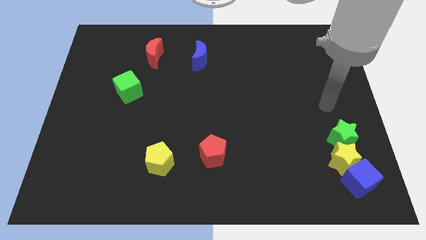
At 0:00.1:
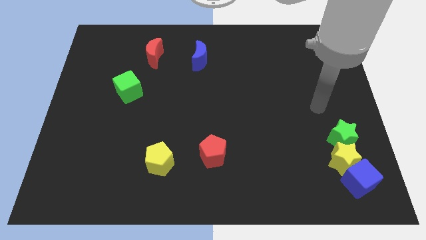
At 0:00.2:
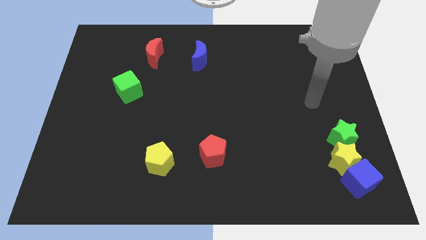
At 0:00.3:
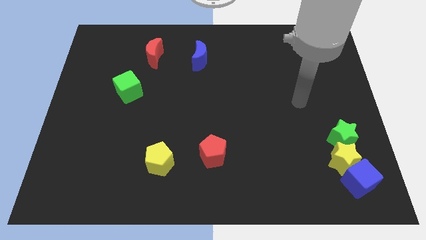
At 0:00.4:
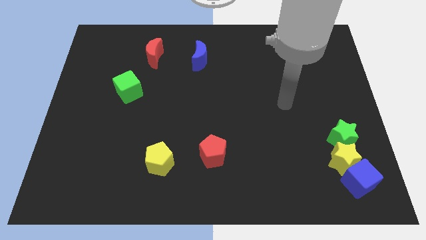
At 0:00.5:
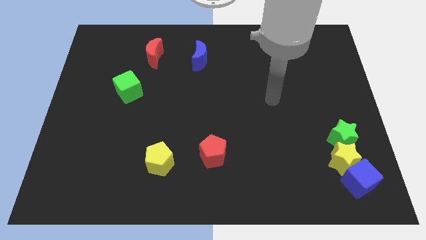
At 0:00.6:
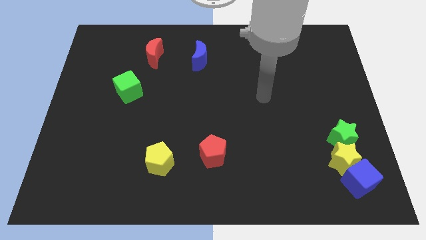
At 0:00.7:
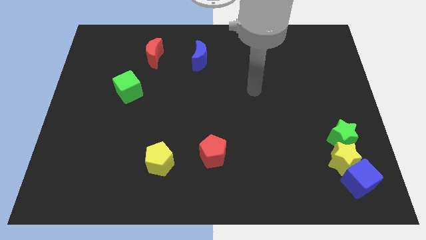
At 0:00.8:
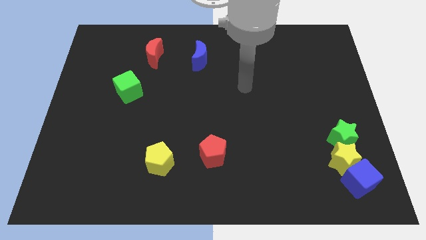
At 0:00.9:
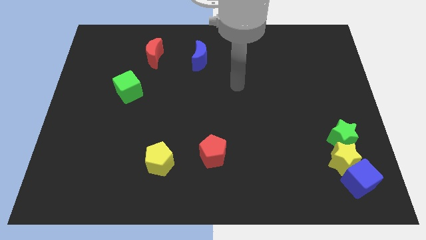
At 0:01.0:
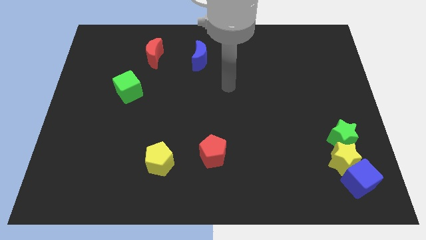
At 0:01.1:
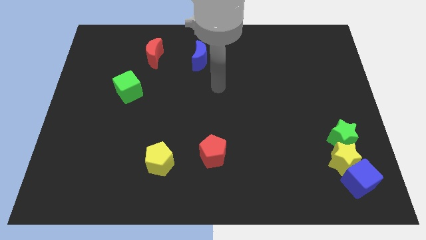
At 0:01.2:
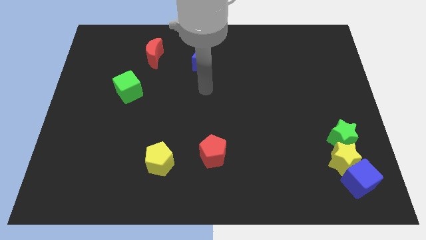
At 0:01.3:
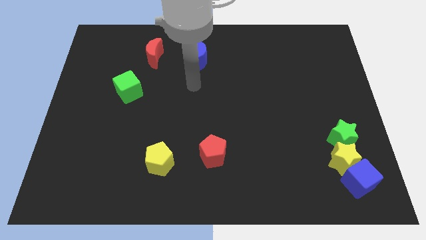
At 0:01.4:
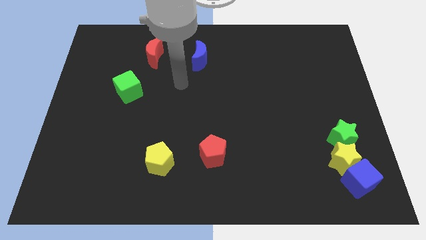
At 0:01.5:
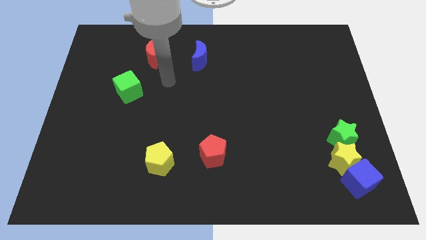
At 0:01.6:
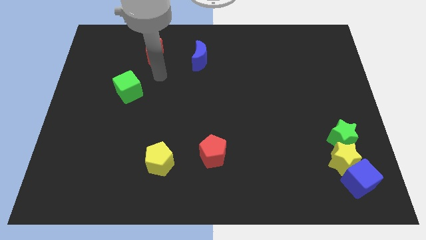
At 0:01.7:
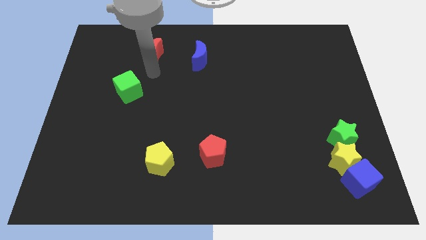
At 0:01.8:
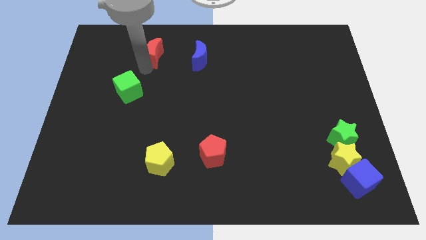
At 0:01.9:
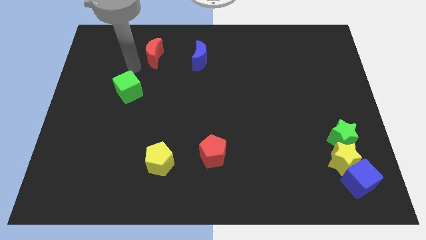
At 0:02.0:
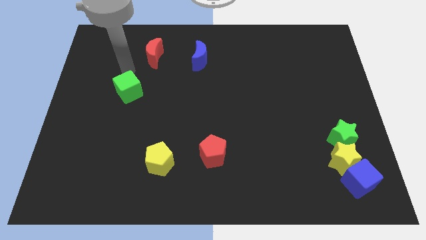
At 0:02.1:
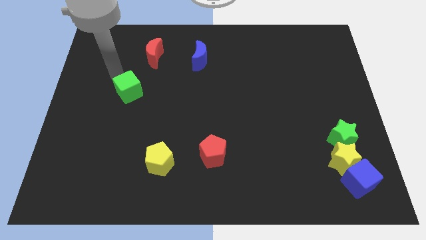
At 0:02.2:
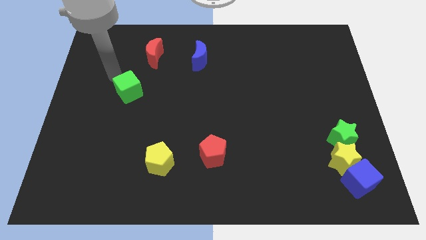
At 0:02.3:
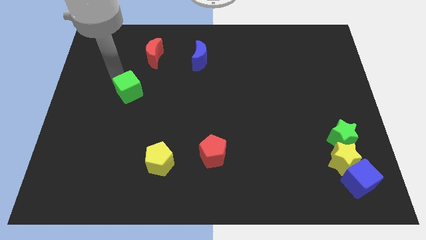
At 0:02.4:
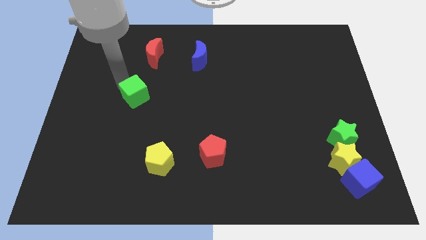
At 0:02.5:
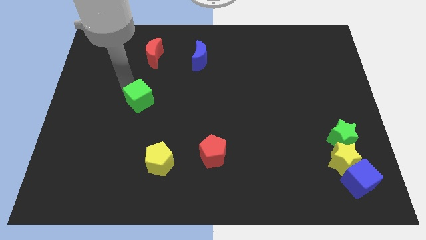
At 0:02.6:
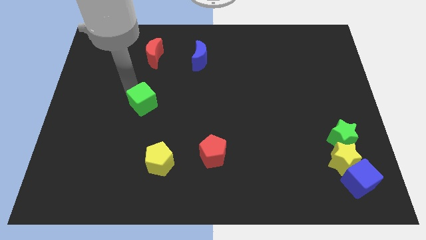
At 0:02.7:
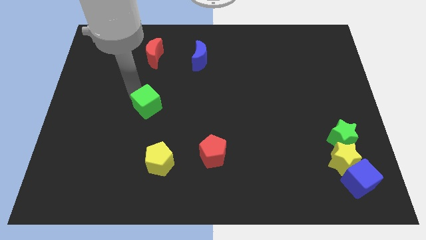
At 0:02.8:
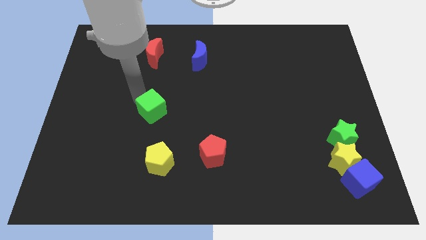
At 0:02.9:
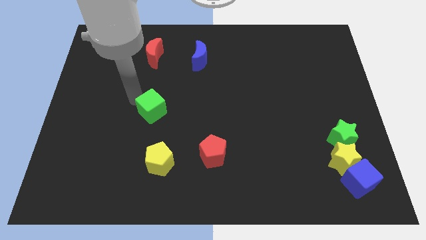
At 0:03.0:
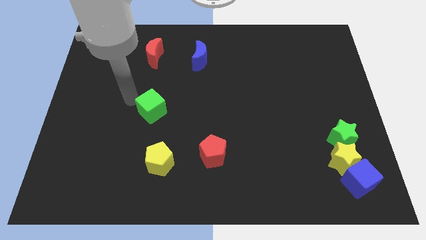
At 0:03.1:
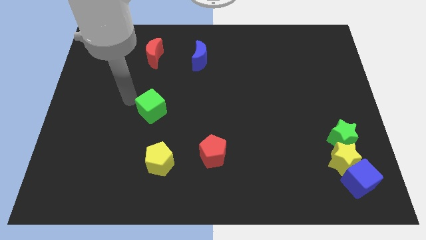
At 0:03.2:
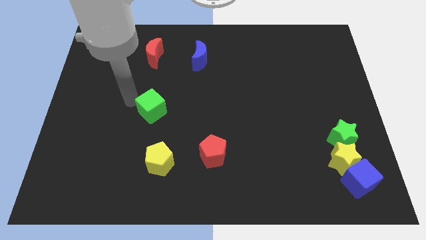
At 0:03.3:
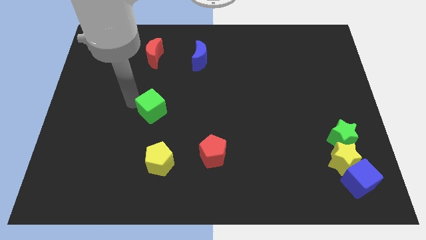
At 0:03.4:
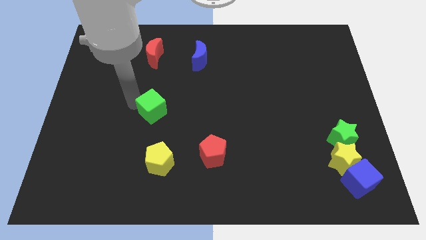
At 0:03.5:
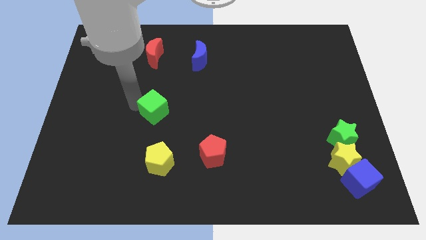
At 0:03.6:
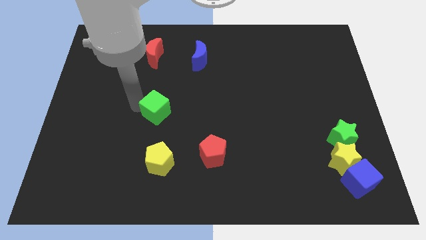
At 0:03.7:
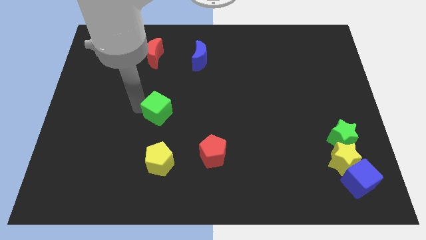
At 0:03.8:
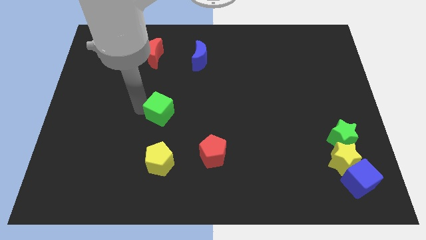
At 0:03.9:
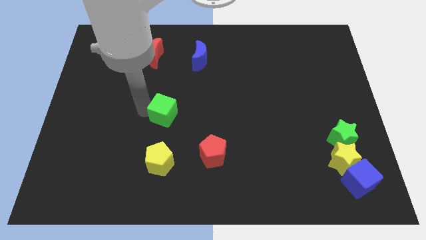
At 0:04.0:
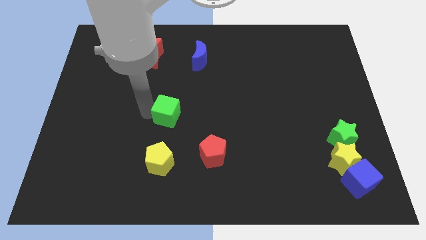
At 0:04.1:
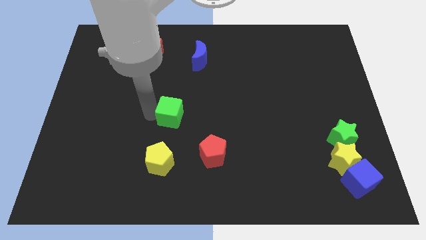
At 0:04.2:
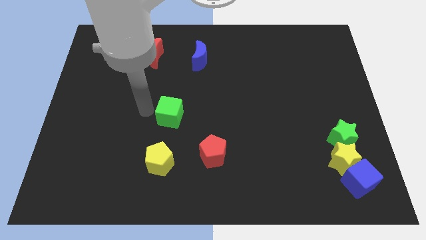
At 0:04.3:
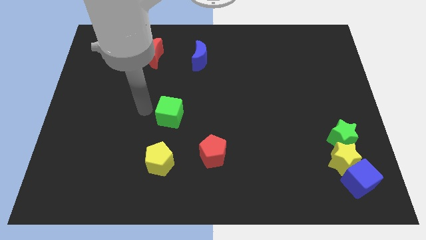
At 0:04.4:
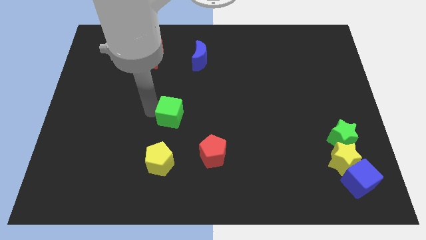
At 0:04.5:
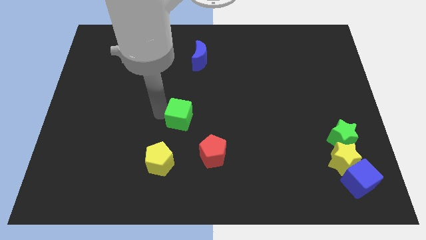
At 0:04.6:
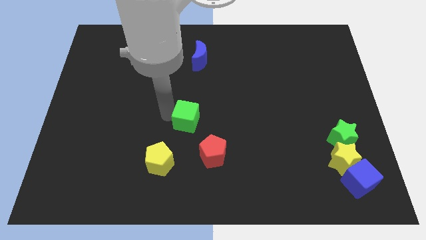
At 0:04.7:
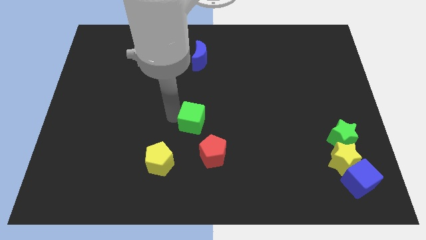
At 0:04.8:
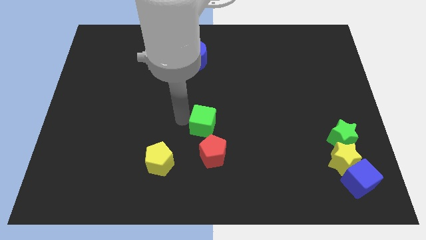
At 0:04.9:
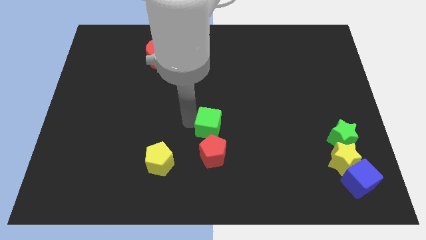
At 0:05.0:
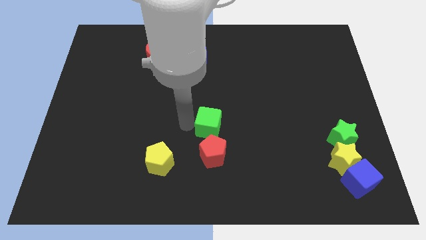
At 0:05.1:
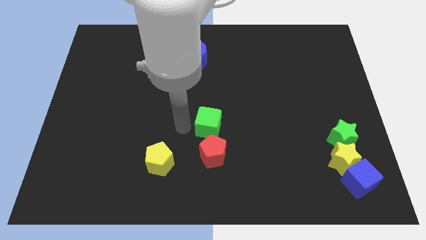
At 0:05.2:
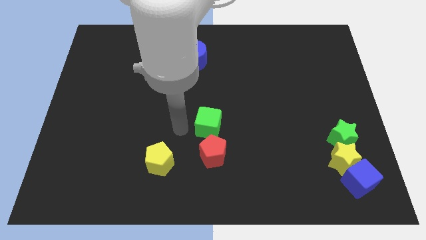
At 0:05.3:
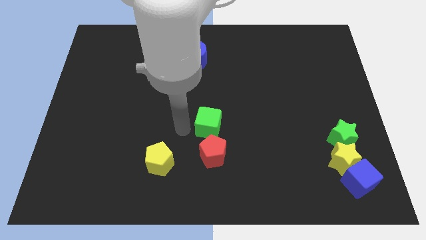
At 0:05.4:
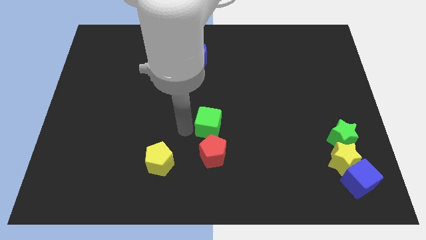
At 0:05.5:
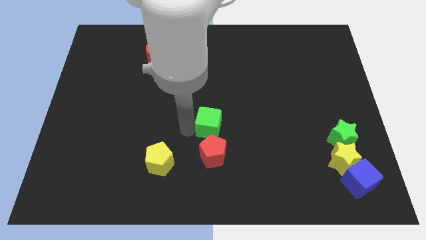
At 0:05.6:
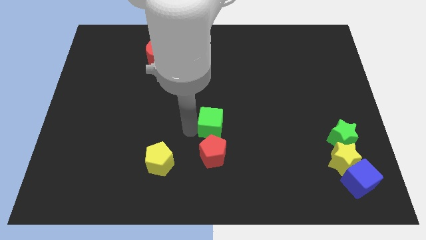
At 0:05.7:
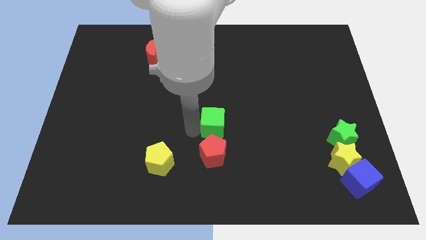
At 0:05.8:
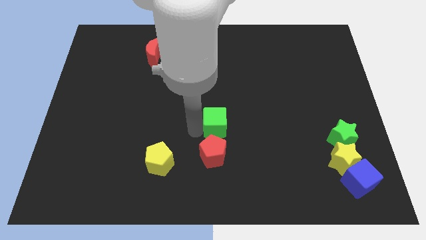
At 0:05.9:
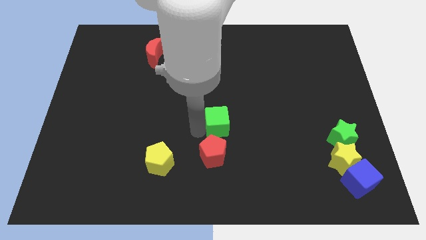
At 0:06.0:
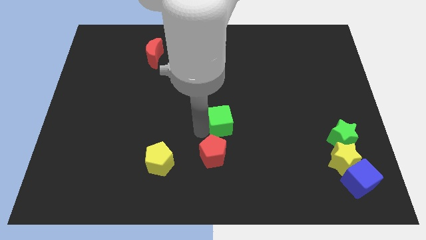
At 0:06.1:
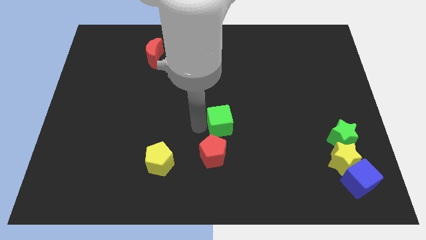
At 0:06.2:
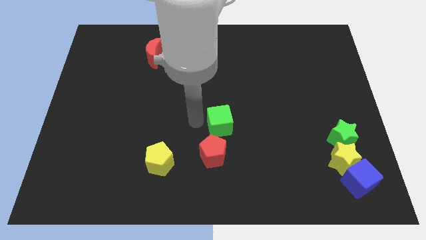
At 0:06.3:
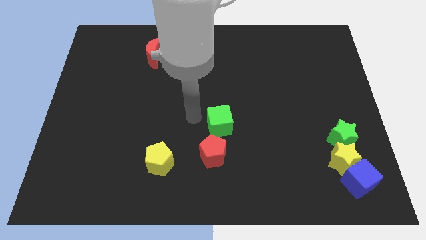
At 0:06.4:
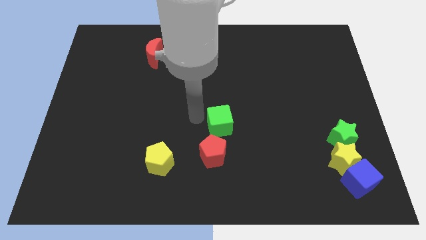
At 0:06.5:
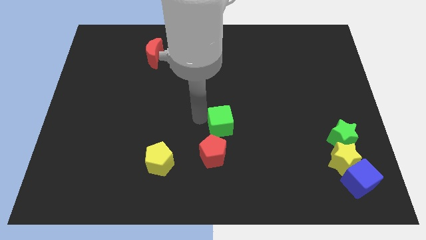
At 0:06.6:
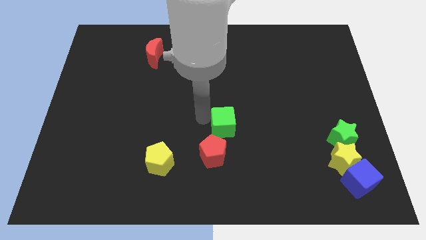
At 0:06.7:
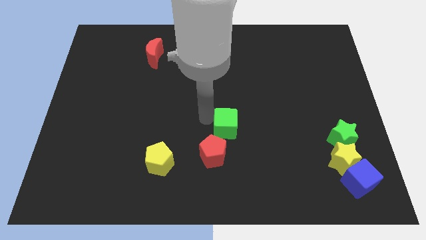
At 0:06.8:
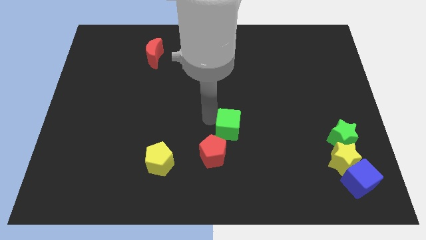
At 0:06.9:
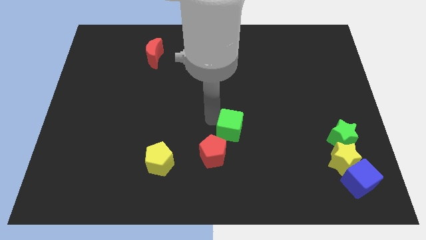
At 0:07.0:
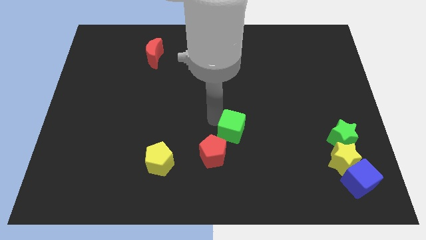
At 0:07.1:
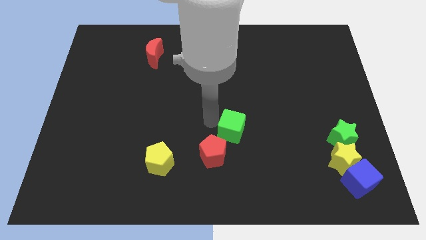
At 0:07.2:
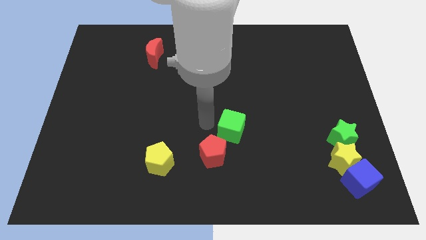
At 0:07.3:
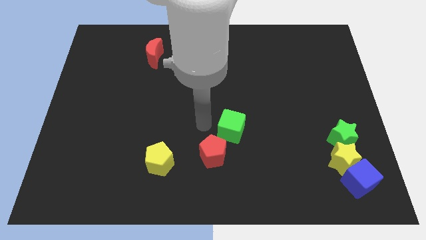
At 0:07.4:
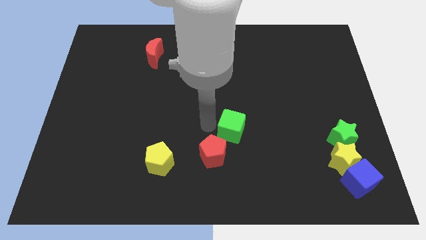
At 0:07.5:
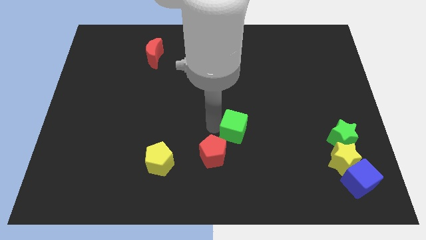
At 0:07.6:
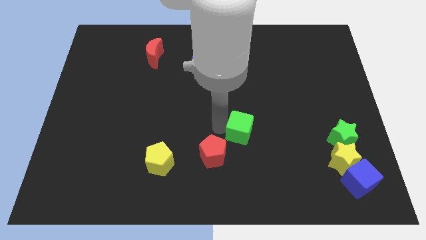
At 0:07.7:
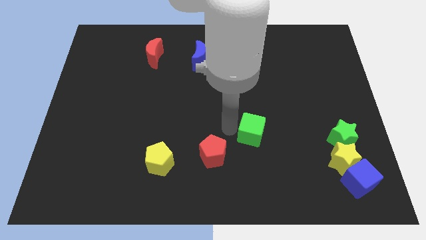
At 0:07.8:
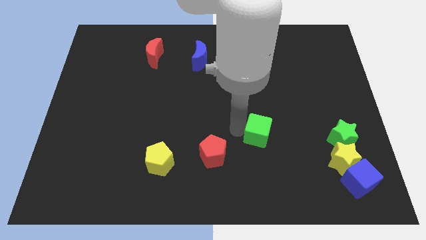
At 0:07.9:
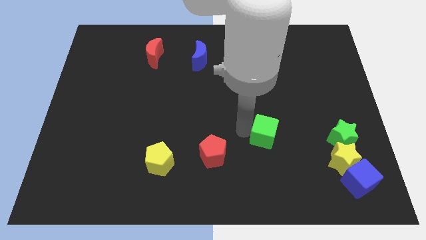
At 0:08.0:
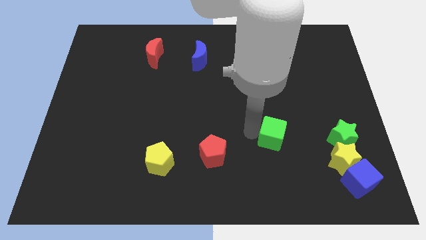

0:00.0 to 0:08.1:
push the green cube left of the green star
